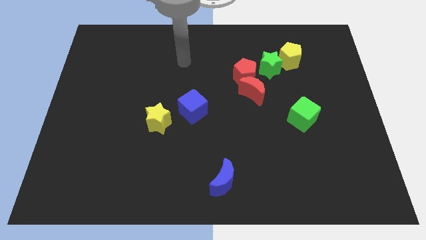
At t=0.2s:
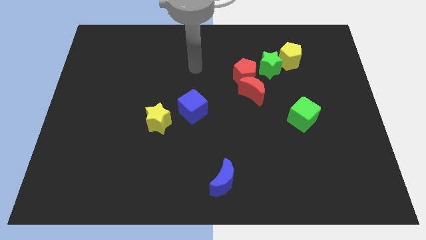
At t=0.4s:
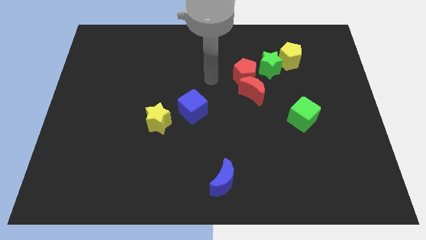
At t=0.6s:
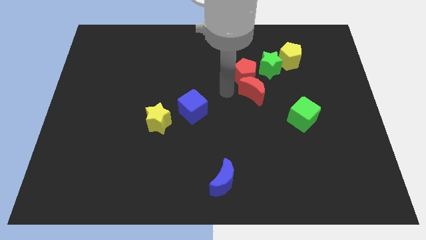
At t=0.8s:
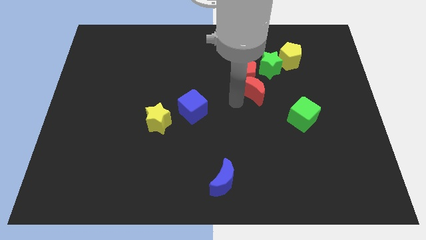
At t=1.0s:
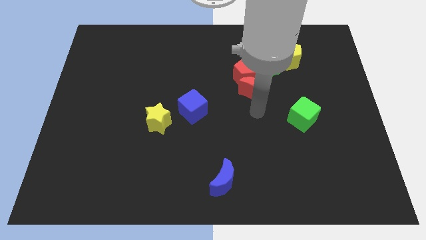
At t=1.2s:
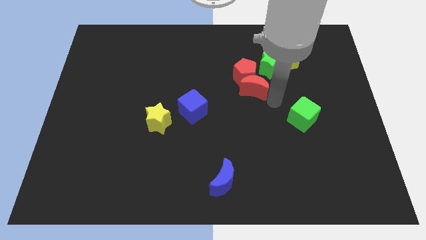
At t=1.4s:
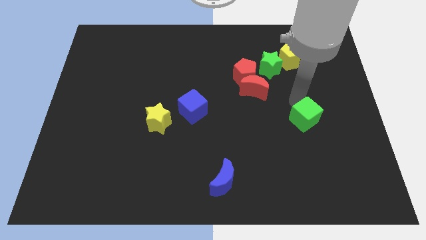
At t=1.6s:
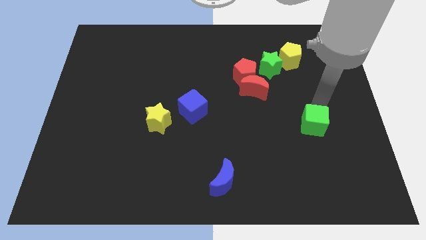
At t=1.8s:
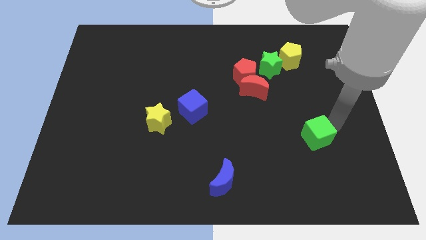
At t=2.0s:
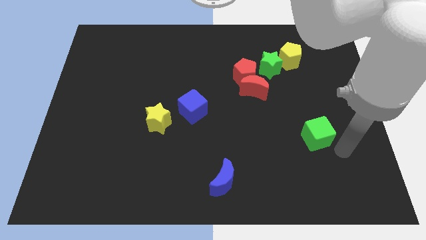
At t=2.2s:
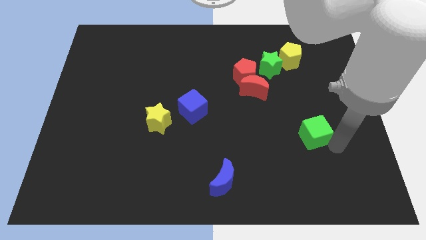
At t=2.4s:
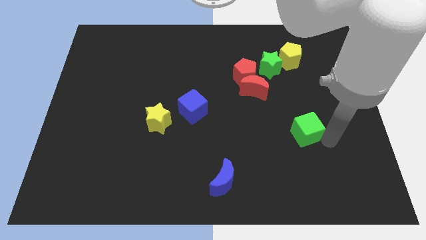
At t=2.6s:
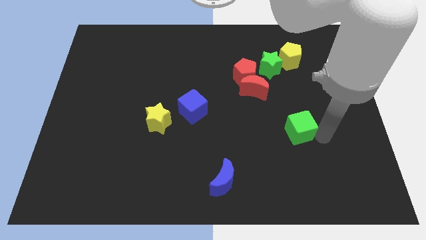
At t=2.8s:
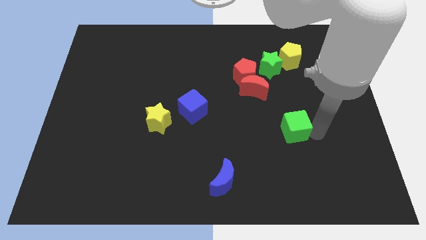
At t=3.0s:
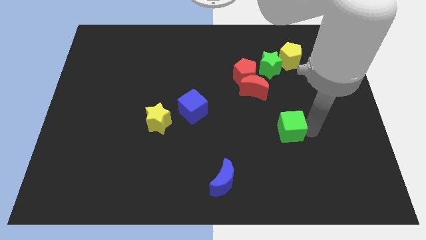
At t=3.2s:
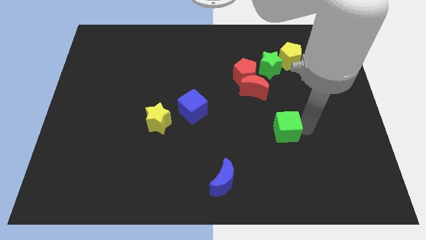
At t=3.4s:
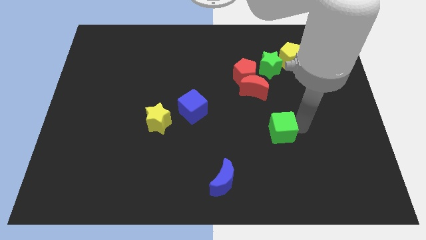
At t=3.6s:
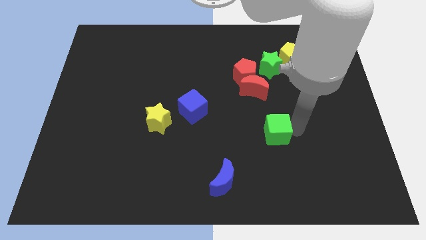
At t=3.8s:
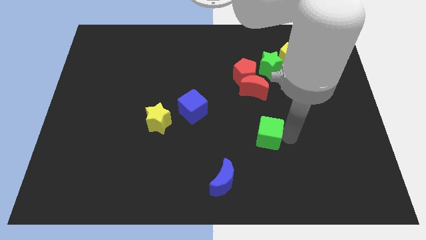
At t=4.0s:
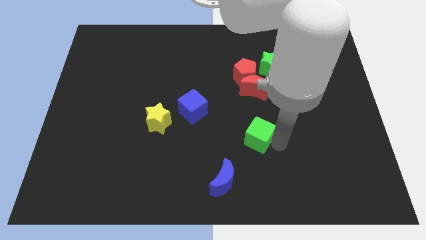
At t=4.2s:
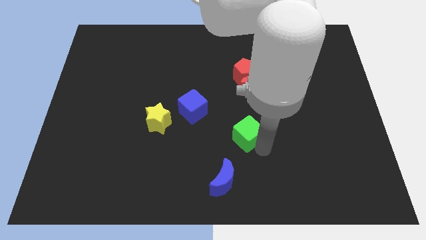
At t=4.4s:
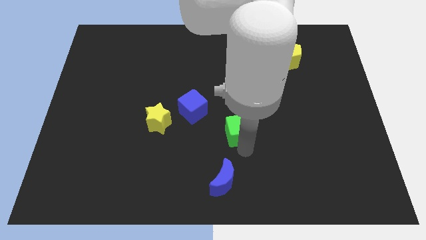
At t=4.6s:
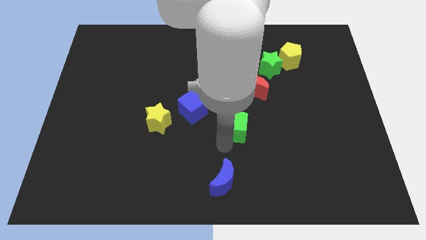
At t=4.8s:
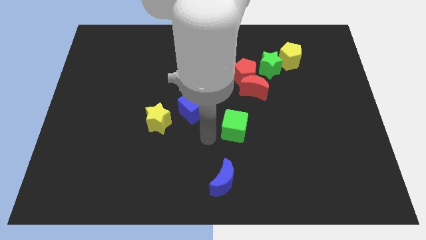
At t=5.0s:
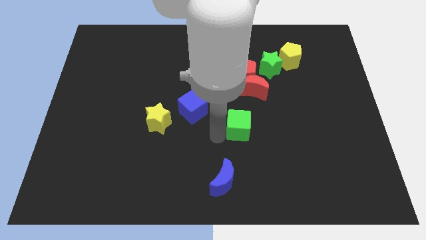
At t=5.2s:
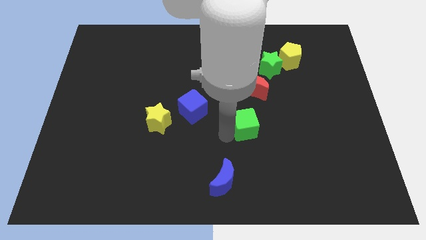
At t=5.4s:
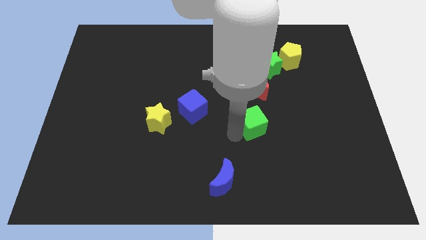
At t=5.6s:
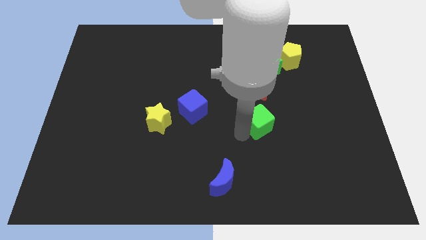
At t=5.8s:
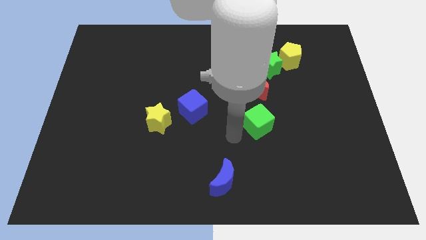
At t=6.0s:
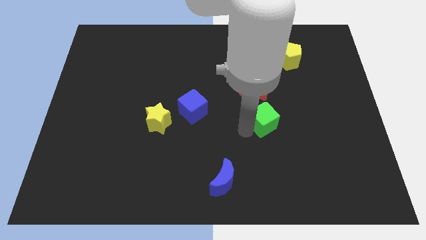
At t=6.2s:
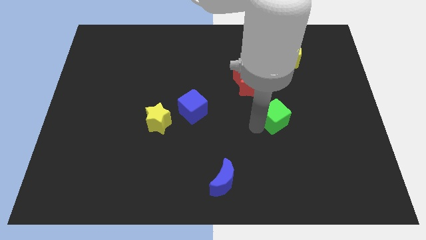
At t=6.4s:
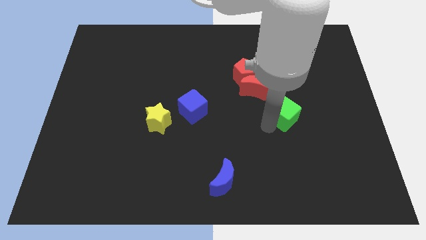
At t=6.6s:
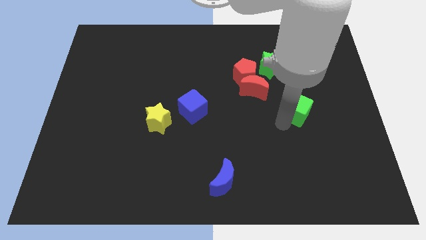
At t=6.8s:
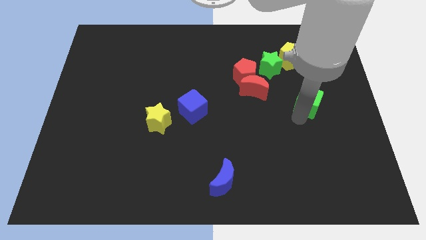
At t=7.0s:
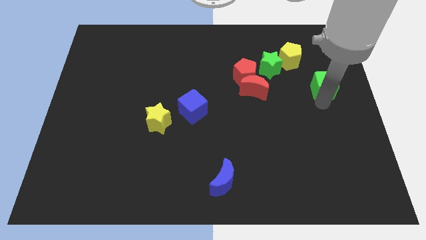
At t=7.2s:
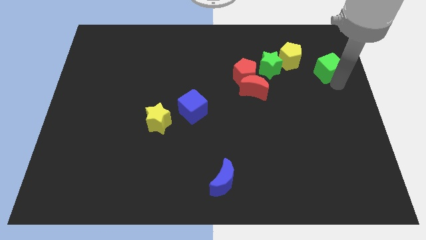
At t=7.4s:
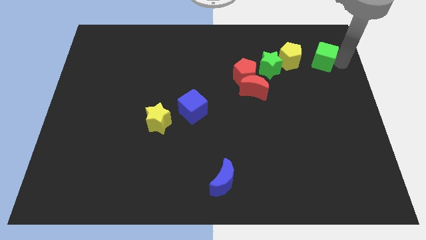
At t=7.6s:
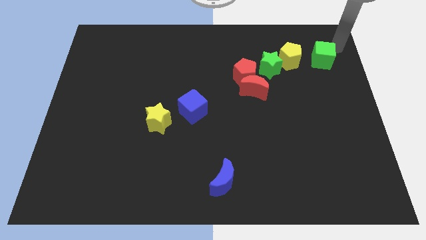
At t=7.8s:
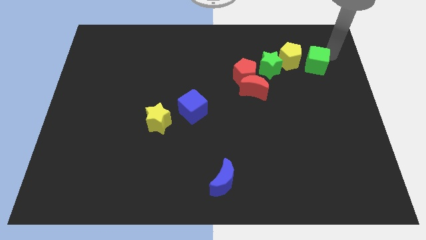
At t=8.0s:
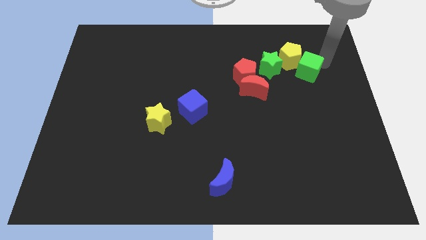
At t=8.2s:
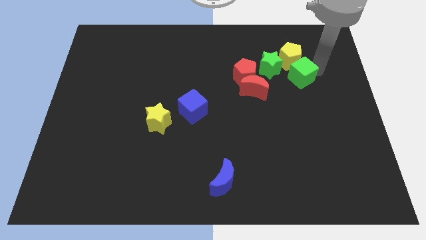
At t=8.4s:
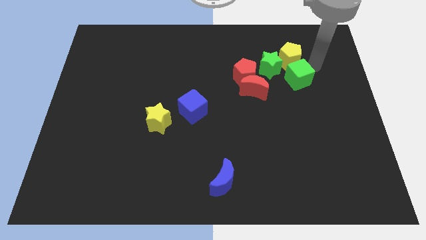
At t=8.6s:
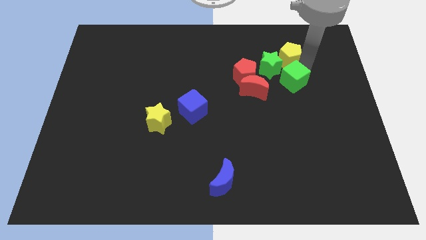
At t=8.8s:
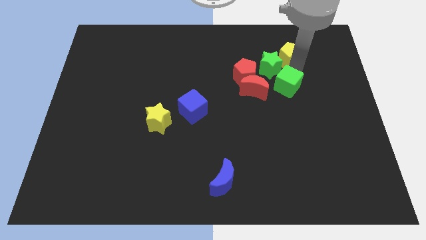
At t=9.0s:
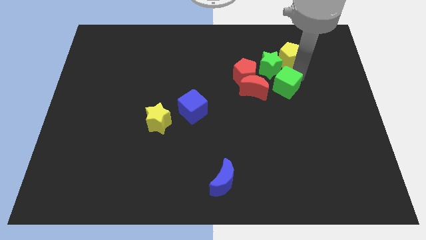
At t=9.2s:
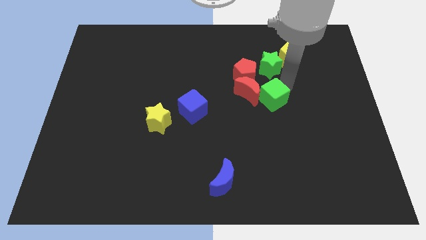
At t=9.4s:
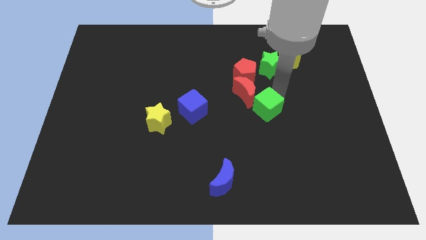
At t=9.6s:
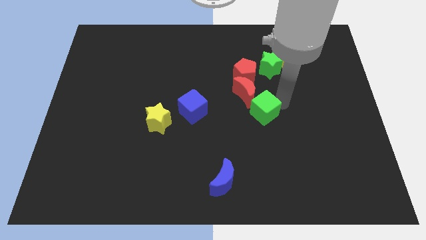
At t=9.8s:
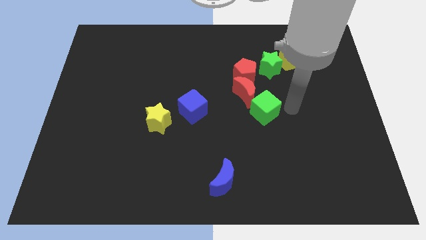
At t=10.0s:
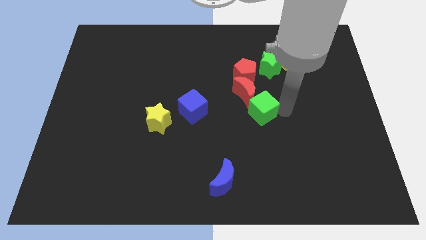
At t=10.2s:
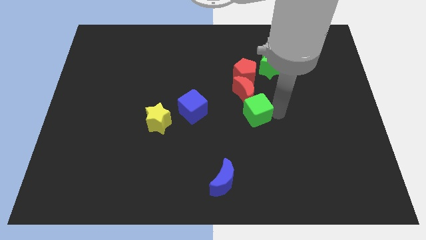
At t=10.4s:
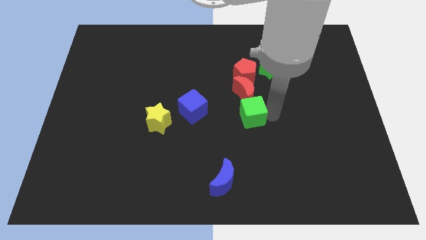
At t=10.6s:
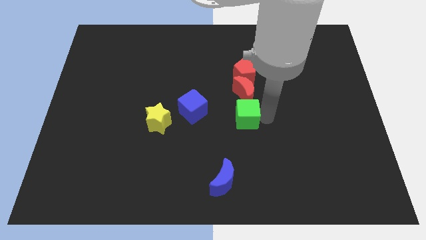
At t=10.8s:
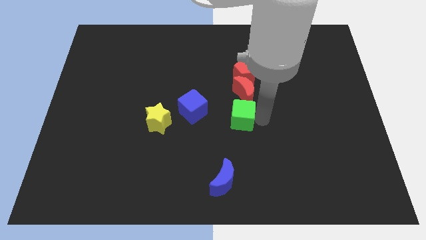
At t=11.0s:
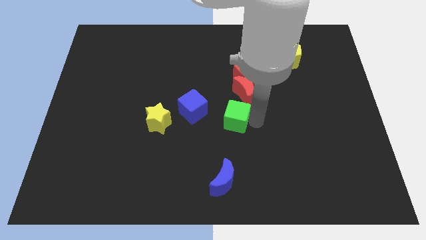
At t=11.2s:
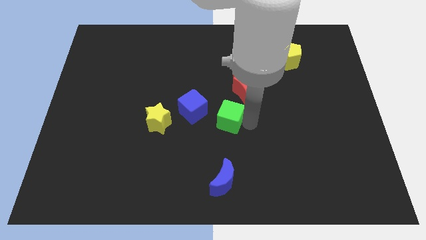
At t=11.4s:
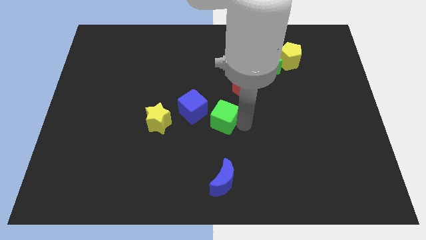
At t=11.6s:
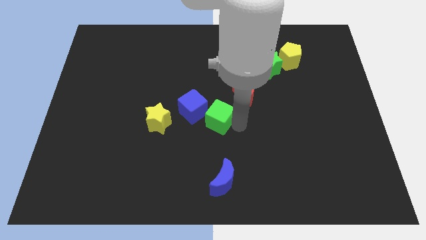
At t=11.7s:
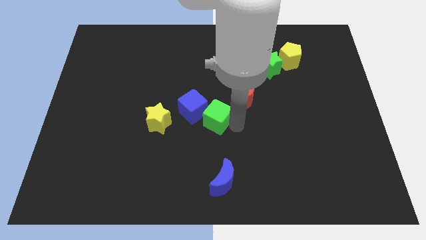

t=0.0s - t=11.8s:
put the green cube next to the blue cube

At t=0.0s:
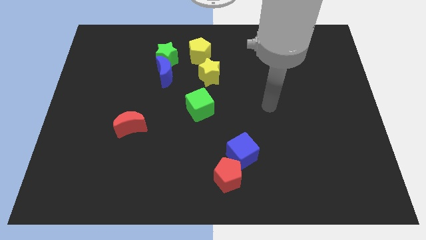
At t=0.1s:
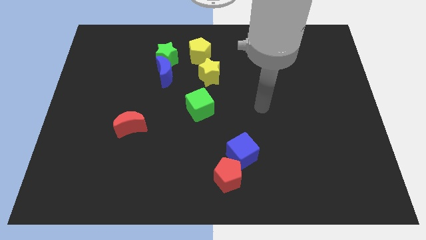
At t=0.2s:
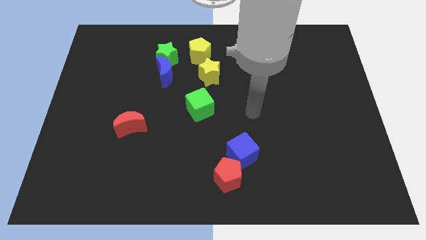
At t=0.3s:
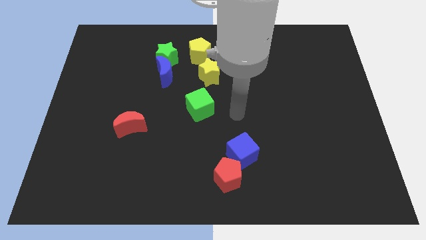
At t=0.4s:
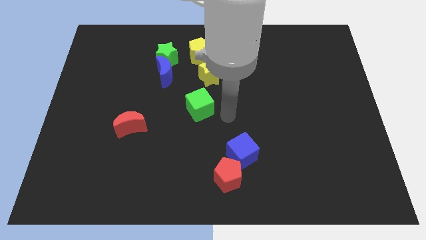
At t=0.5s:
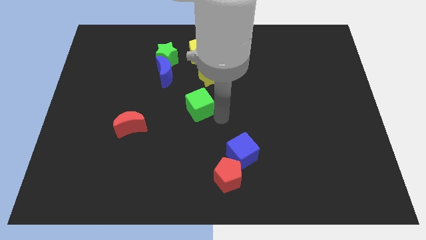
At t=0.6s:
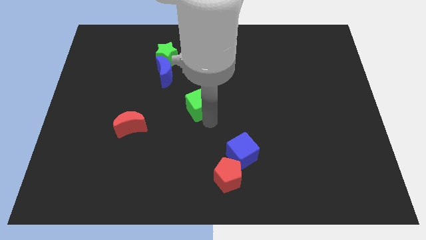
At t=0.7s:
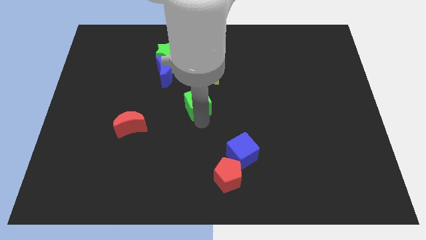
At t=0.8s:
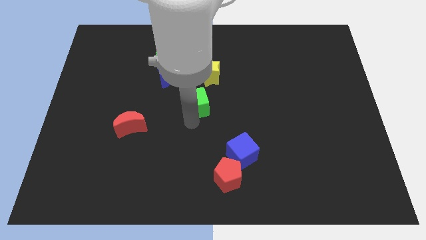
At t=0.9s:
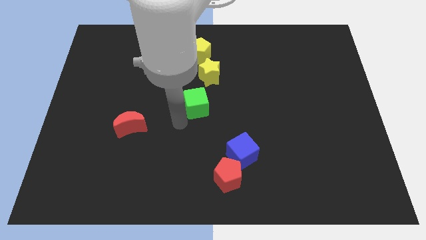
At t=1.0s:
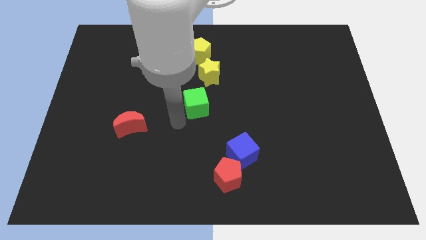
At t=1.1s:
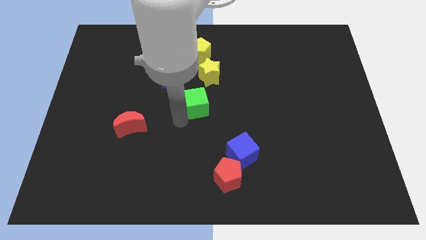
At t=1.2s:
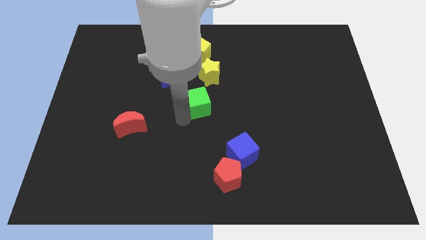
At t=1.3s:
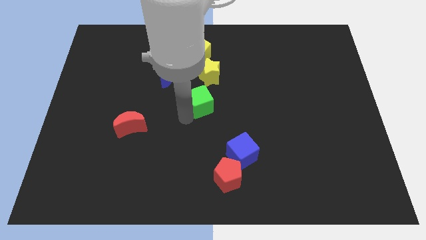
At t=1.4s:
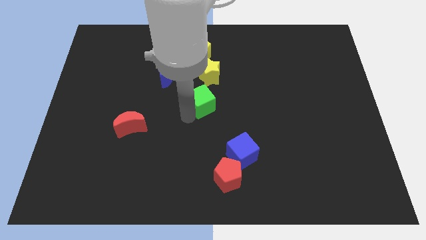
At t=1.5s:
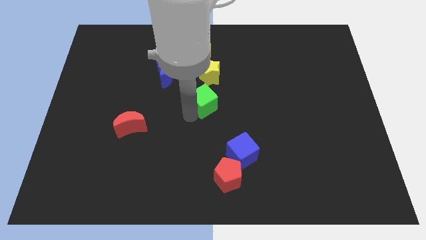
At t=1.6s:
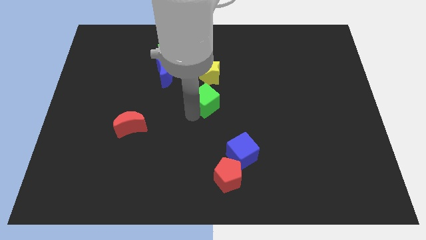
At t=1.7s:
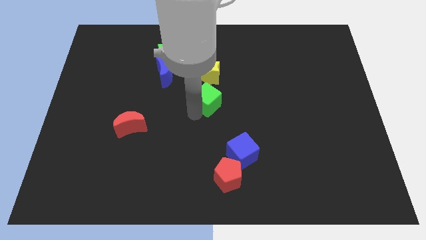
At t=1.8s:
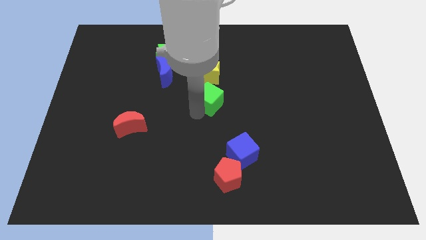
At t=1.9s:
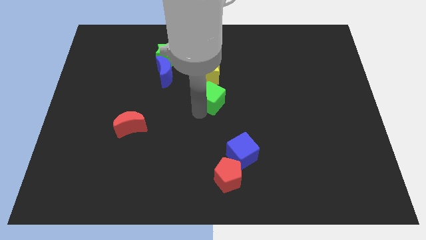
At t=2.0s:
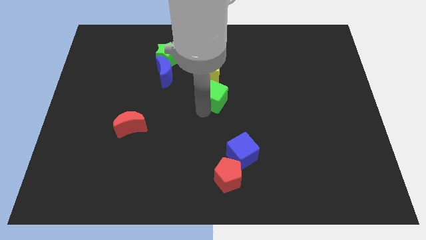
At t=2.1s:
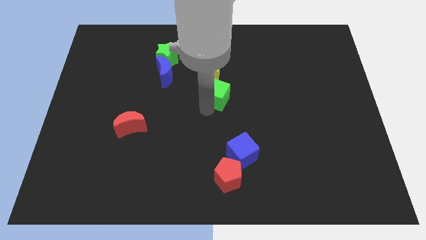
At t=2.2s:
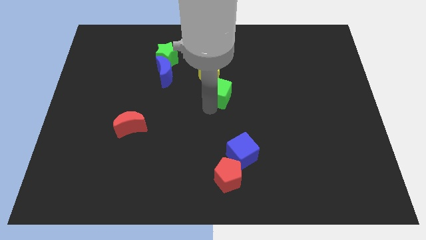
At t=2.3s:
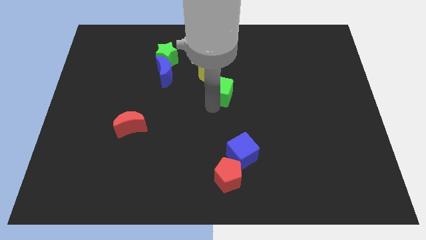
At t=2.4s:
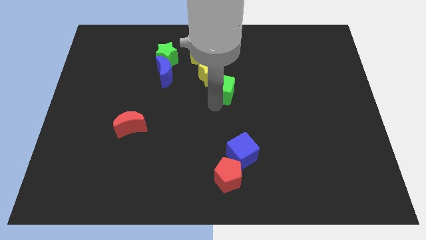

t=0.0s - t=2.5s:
put the green cube to the yellow star
